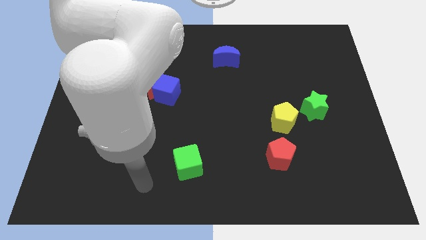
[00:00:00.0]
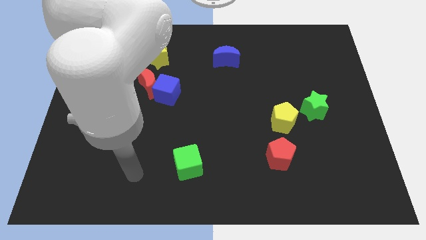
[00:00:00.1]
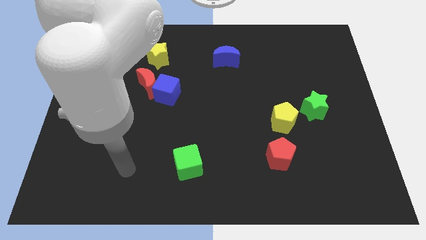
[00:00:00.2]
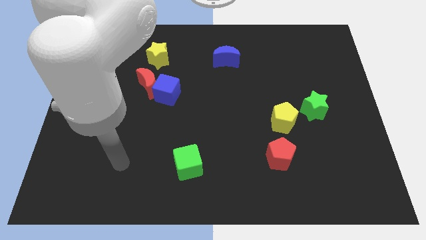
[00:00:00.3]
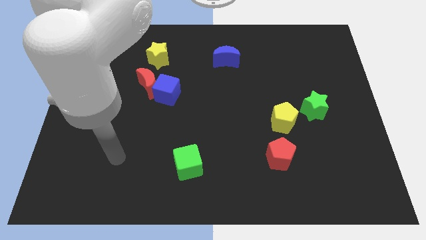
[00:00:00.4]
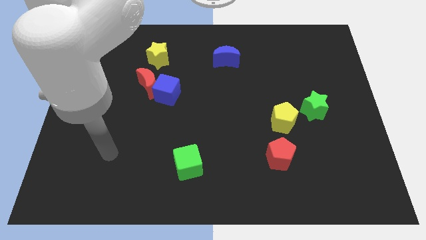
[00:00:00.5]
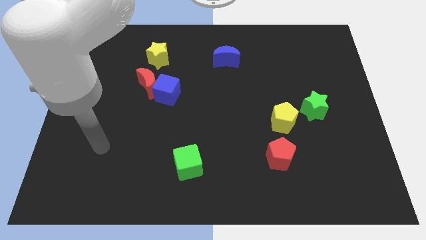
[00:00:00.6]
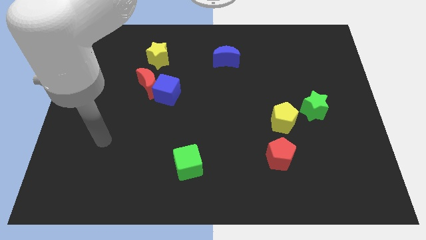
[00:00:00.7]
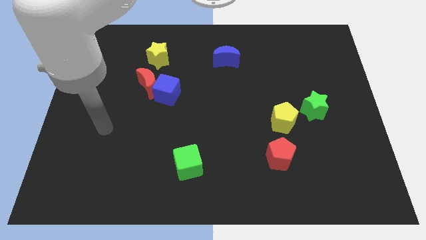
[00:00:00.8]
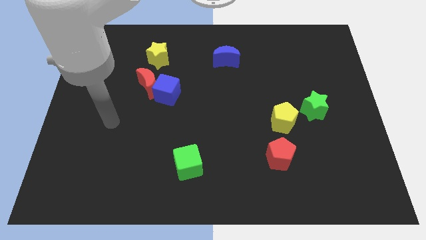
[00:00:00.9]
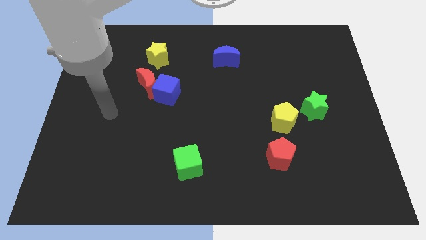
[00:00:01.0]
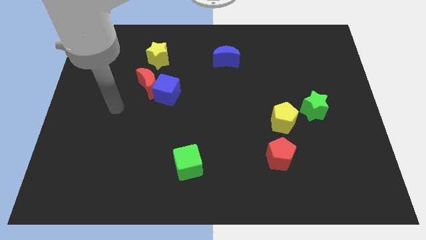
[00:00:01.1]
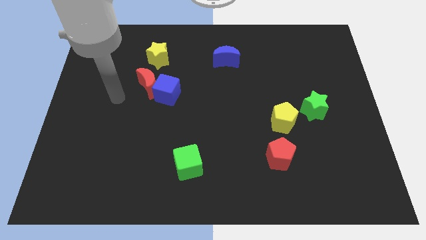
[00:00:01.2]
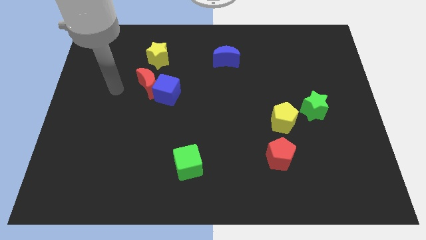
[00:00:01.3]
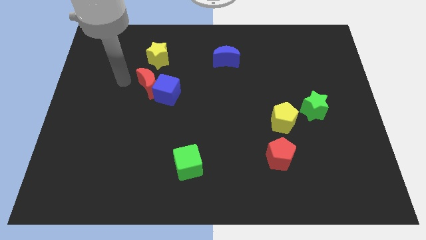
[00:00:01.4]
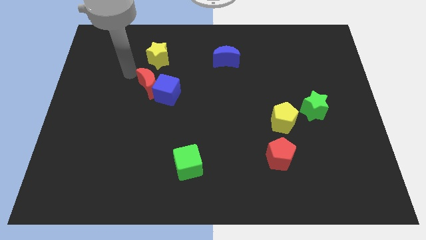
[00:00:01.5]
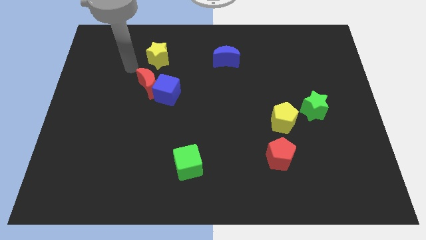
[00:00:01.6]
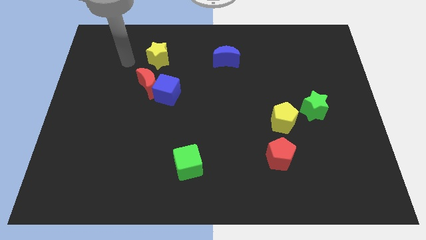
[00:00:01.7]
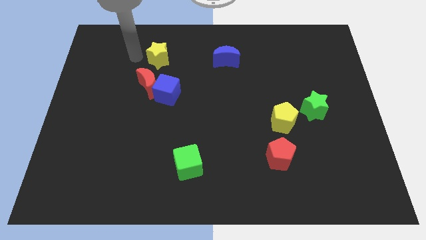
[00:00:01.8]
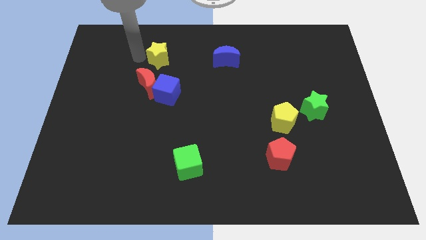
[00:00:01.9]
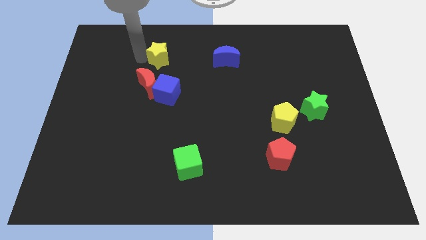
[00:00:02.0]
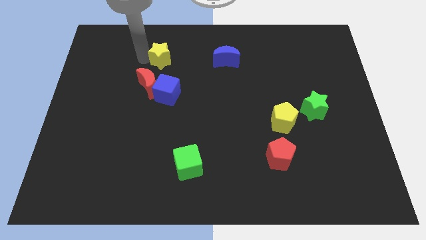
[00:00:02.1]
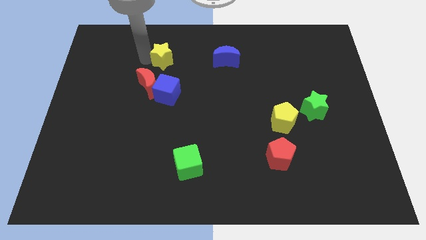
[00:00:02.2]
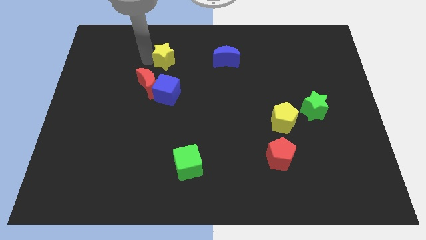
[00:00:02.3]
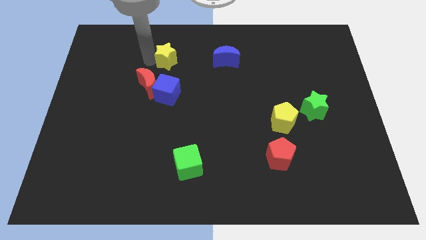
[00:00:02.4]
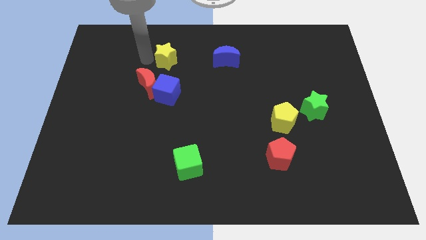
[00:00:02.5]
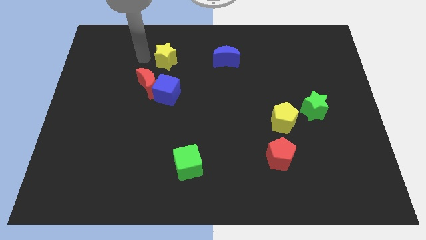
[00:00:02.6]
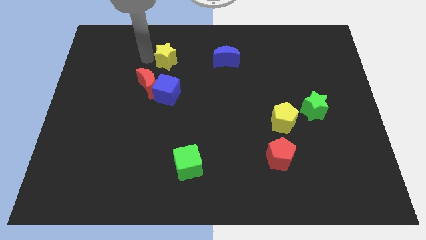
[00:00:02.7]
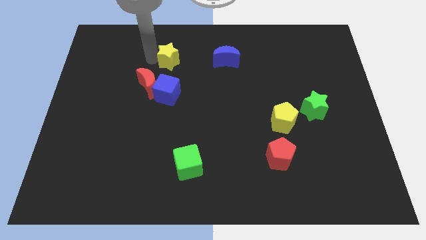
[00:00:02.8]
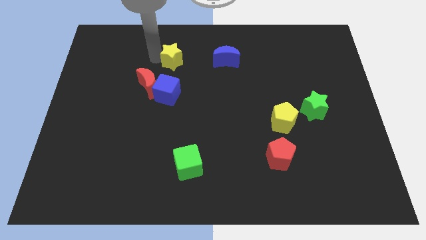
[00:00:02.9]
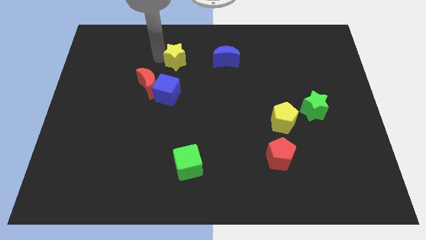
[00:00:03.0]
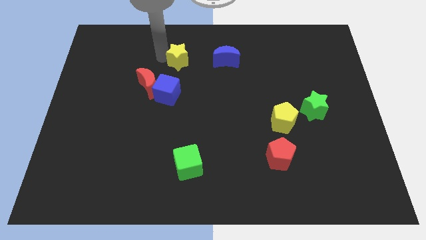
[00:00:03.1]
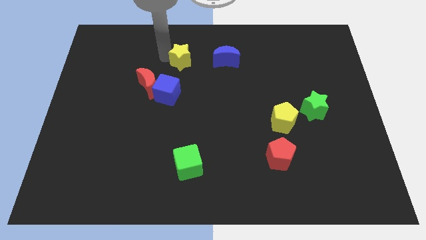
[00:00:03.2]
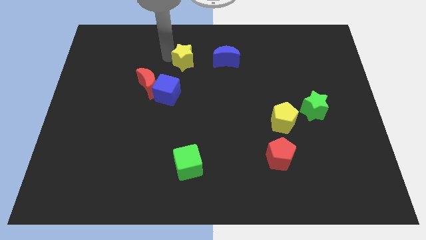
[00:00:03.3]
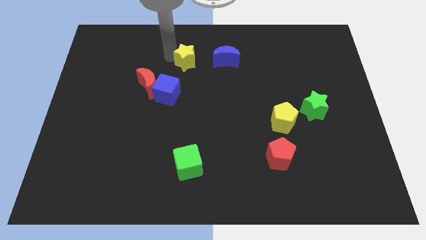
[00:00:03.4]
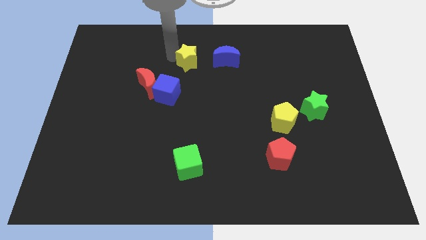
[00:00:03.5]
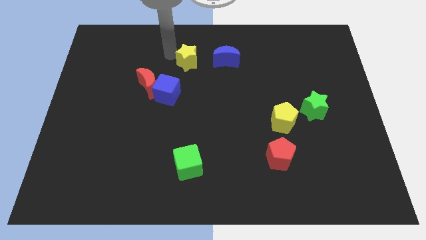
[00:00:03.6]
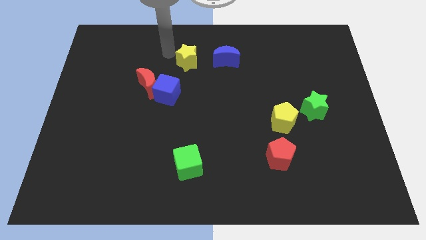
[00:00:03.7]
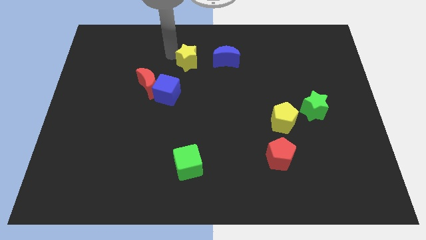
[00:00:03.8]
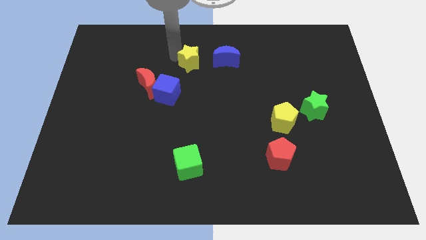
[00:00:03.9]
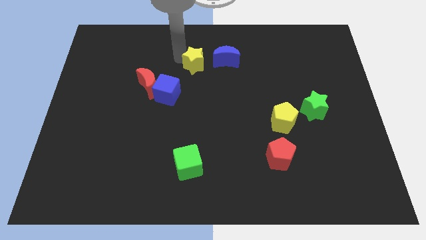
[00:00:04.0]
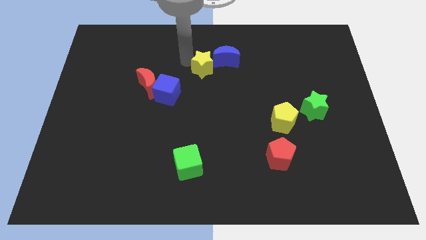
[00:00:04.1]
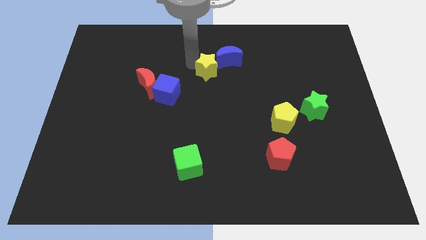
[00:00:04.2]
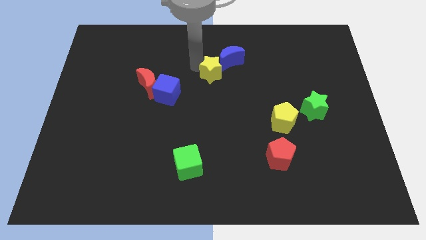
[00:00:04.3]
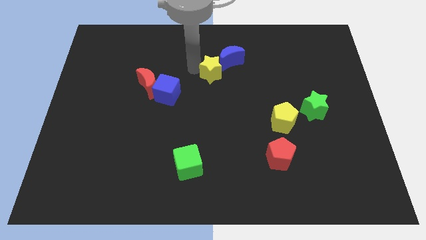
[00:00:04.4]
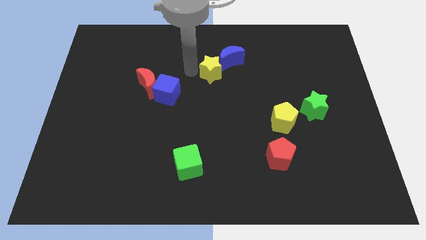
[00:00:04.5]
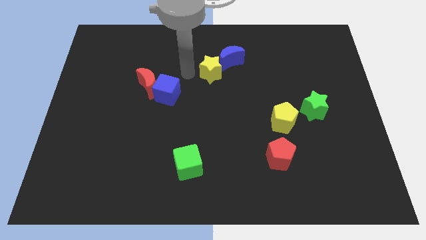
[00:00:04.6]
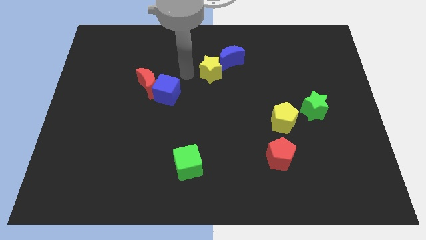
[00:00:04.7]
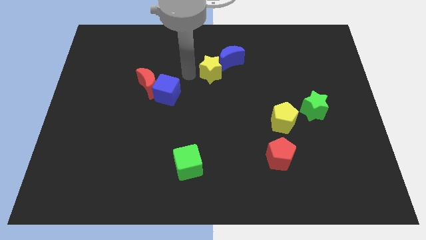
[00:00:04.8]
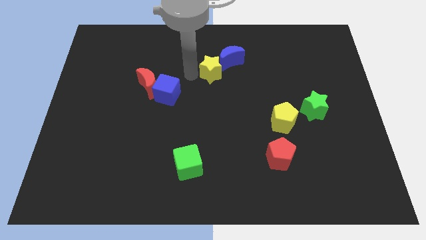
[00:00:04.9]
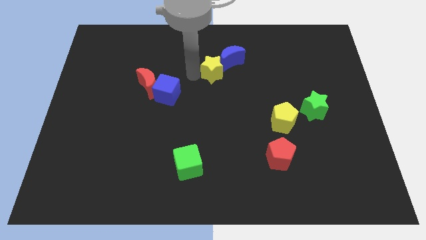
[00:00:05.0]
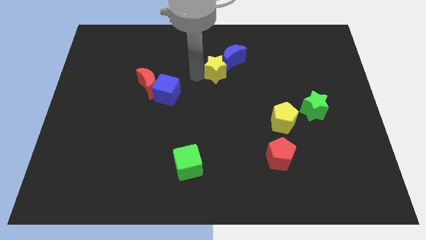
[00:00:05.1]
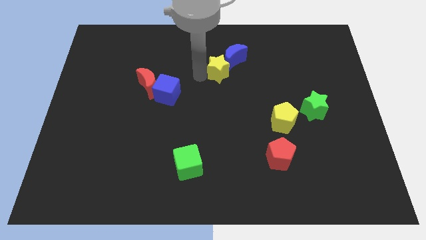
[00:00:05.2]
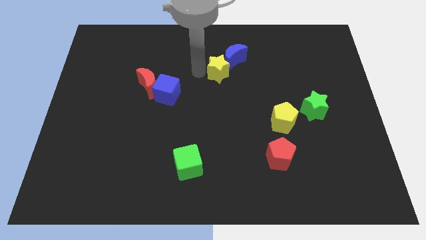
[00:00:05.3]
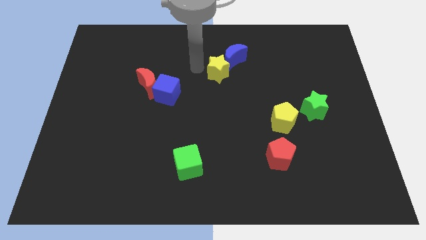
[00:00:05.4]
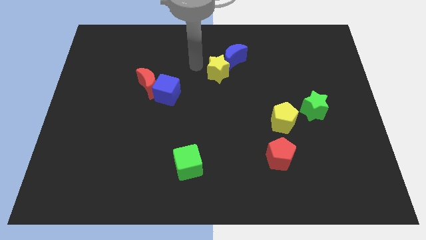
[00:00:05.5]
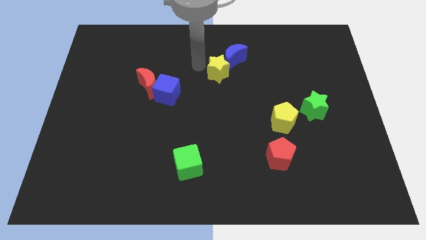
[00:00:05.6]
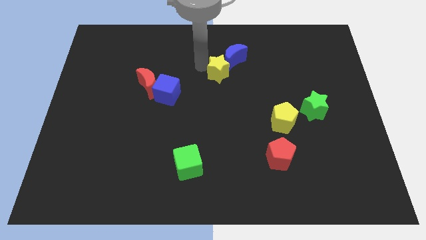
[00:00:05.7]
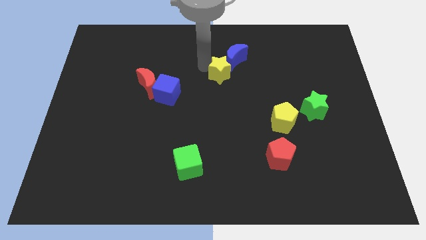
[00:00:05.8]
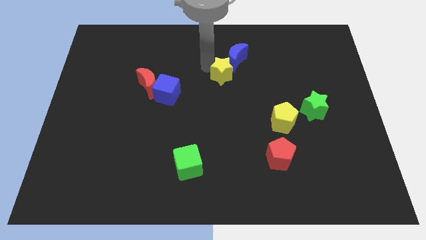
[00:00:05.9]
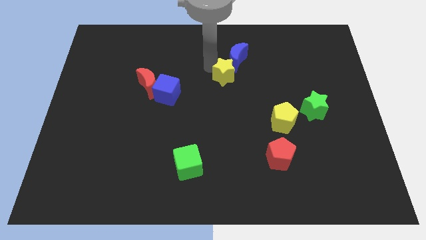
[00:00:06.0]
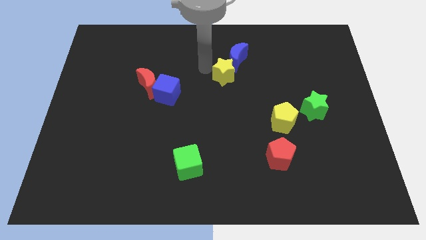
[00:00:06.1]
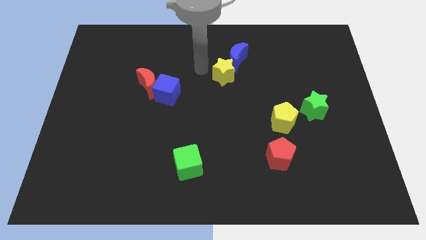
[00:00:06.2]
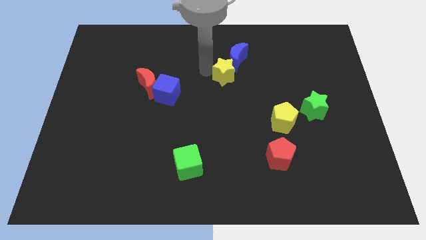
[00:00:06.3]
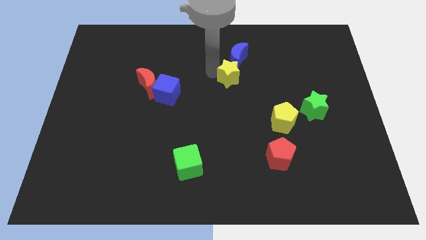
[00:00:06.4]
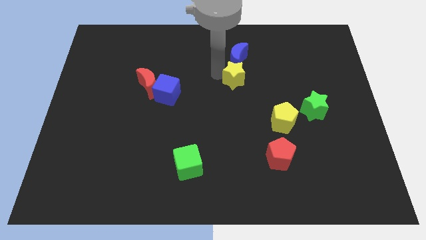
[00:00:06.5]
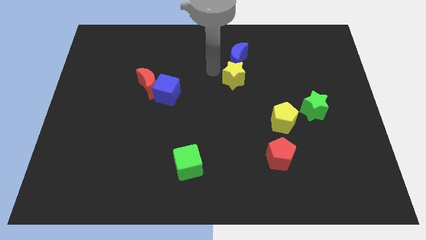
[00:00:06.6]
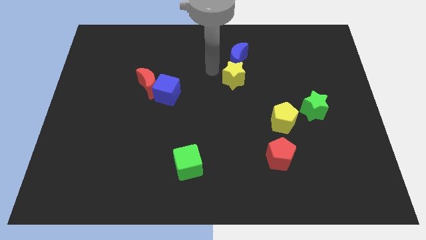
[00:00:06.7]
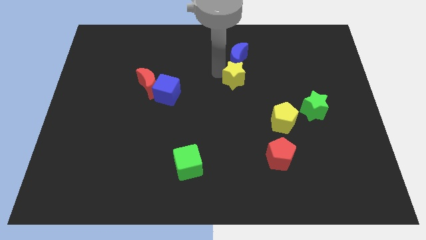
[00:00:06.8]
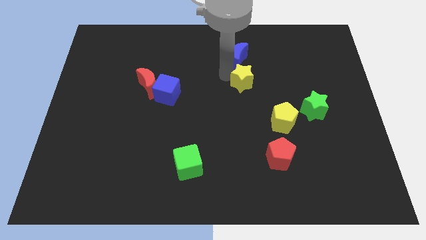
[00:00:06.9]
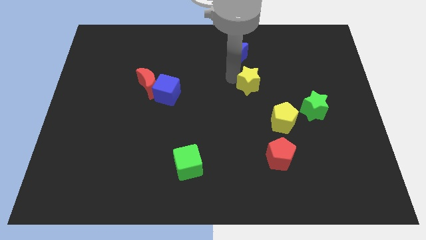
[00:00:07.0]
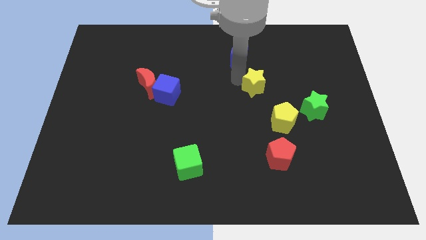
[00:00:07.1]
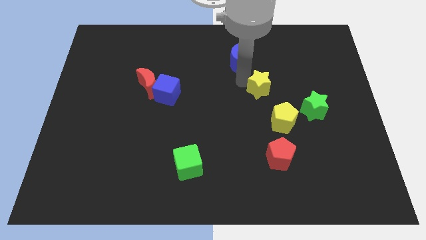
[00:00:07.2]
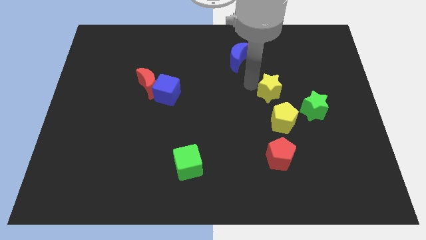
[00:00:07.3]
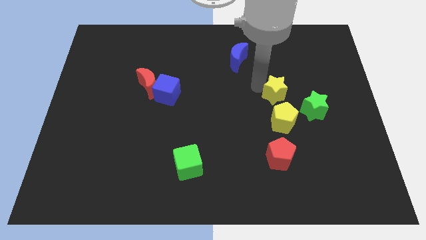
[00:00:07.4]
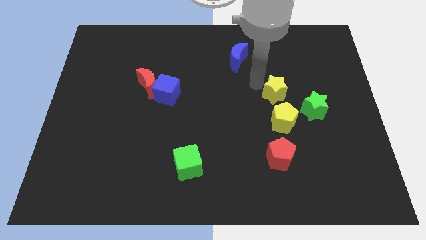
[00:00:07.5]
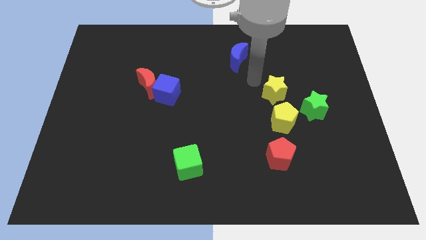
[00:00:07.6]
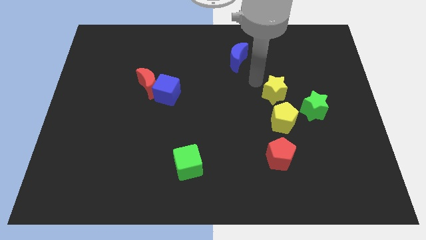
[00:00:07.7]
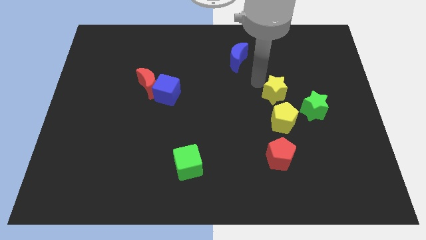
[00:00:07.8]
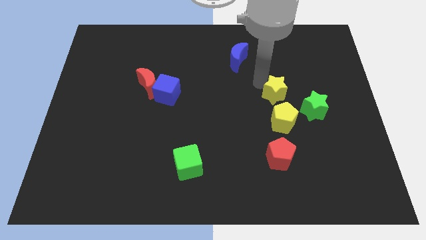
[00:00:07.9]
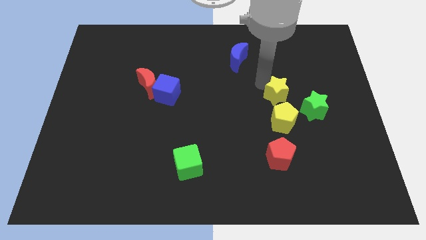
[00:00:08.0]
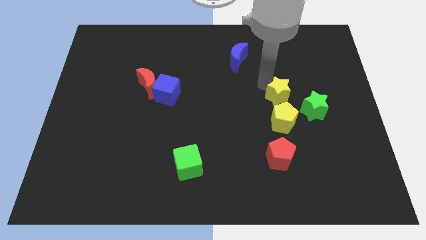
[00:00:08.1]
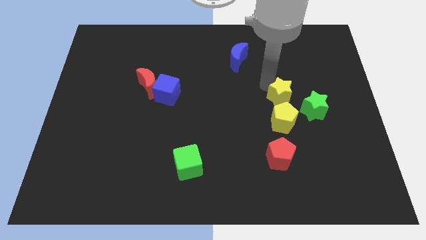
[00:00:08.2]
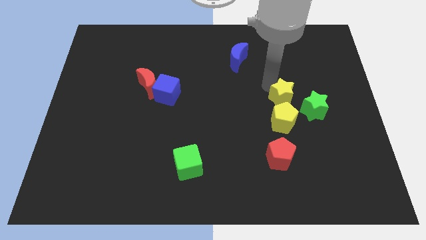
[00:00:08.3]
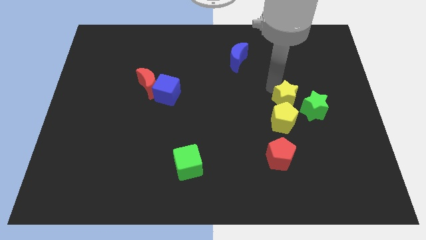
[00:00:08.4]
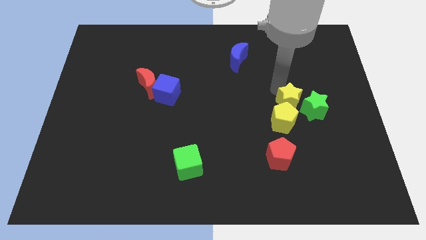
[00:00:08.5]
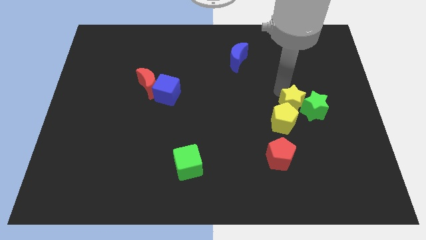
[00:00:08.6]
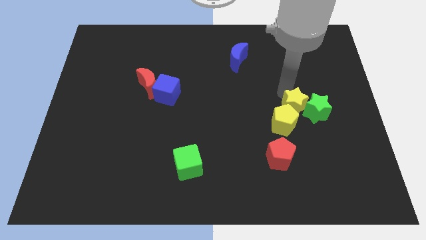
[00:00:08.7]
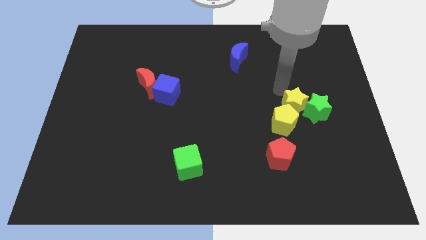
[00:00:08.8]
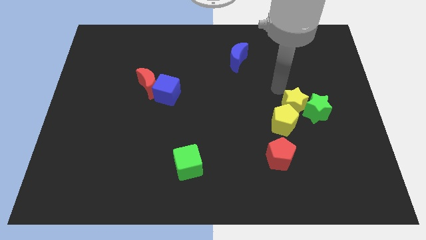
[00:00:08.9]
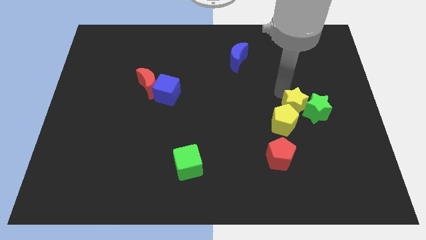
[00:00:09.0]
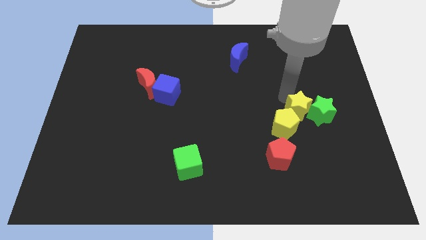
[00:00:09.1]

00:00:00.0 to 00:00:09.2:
put the yellow star to the right of the yellow pentagon
